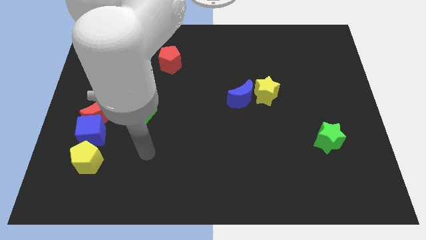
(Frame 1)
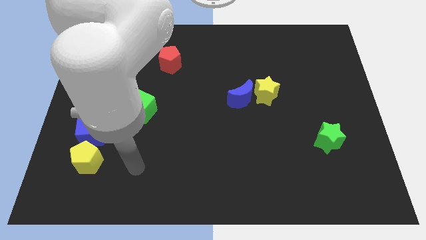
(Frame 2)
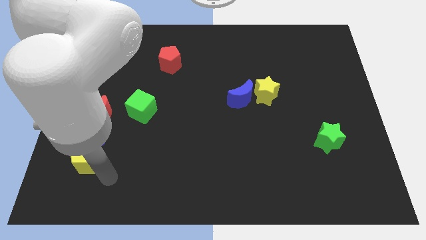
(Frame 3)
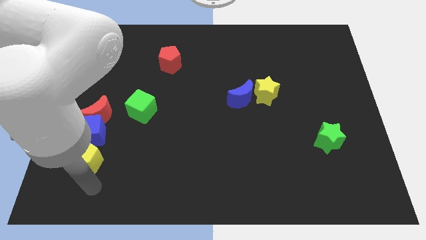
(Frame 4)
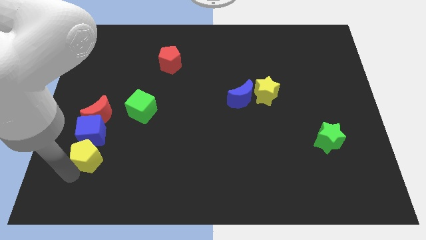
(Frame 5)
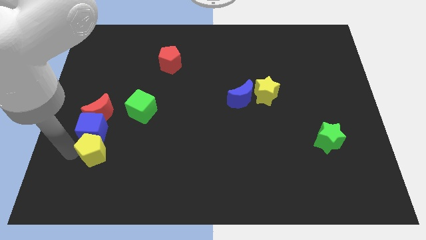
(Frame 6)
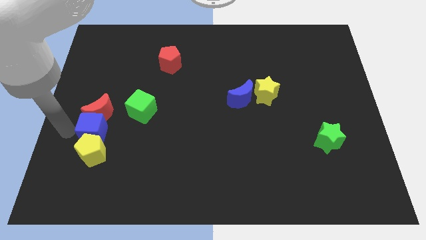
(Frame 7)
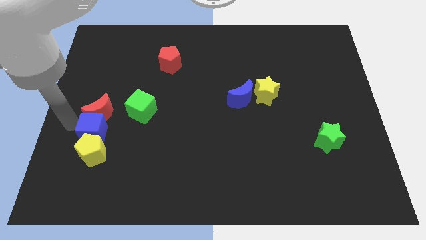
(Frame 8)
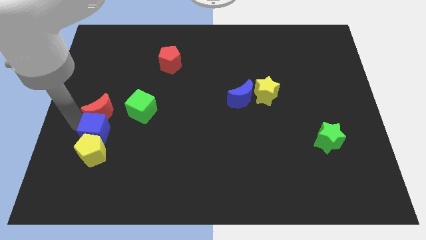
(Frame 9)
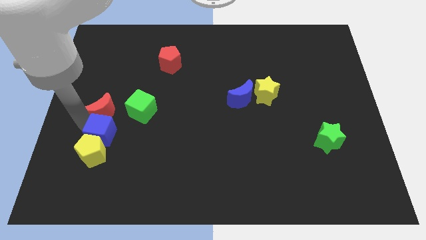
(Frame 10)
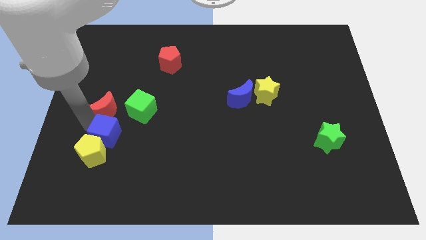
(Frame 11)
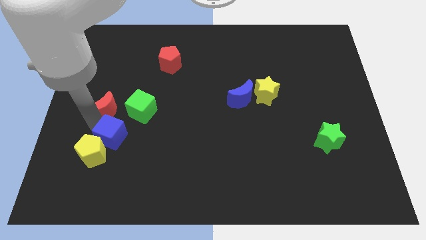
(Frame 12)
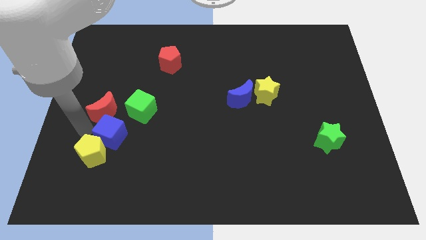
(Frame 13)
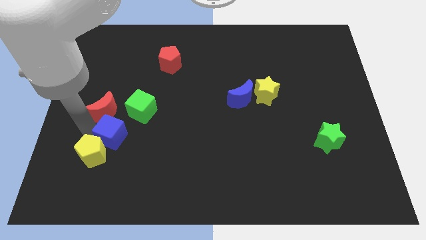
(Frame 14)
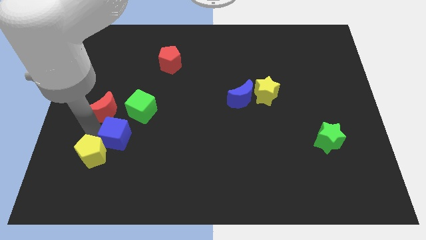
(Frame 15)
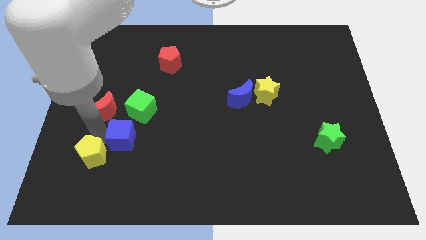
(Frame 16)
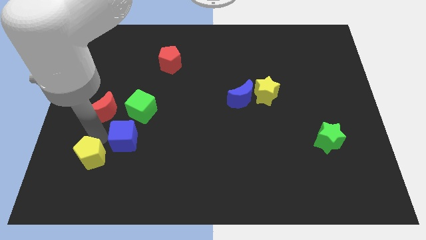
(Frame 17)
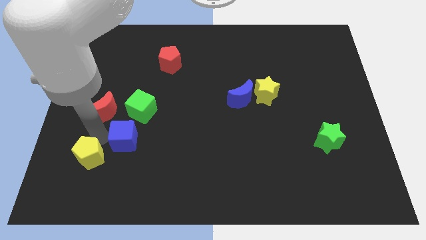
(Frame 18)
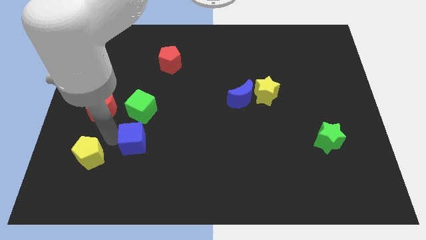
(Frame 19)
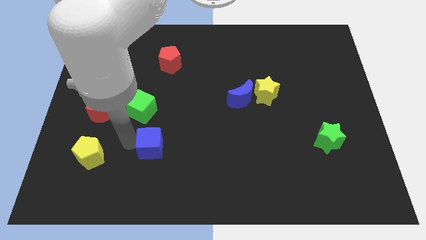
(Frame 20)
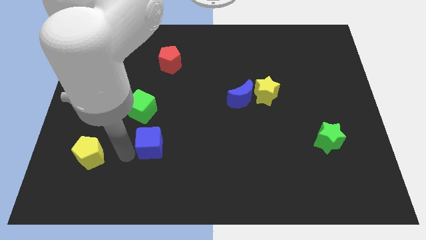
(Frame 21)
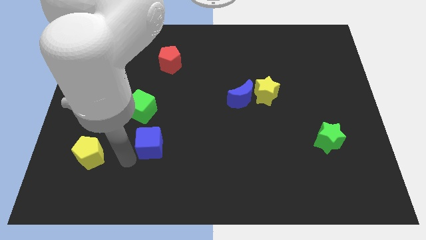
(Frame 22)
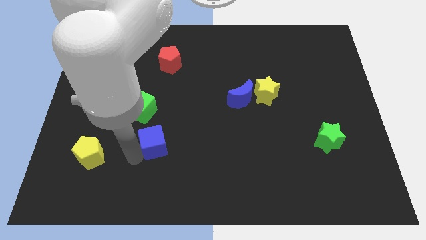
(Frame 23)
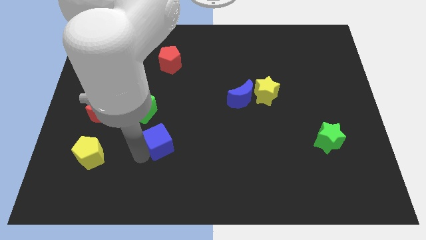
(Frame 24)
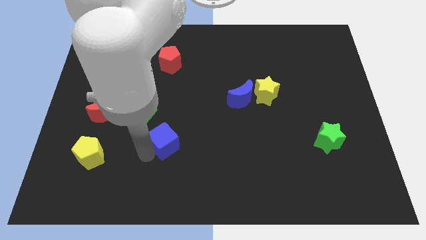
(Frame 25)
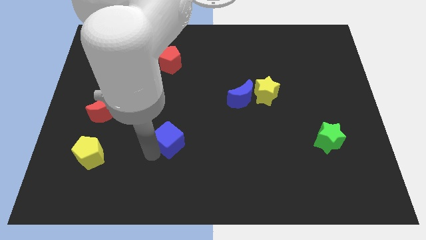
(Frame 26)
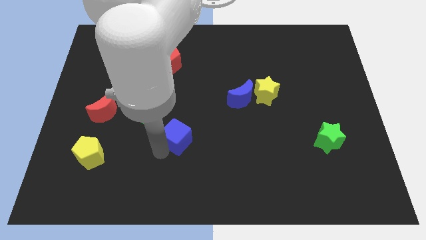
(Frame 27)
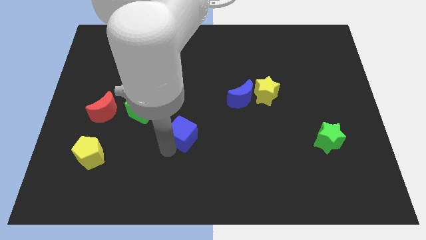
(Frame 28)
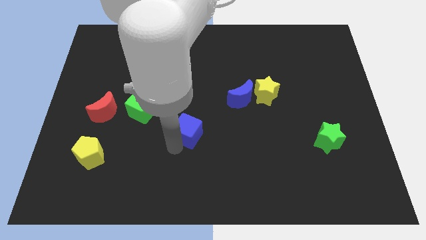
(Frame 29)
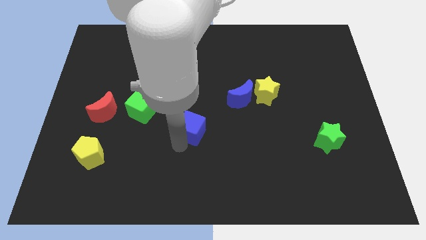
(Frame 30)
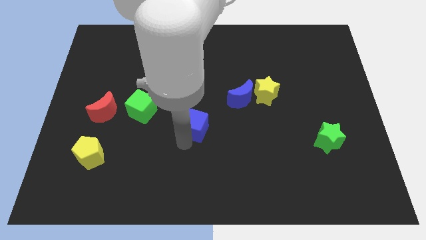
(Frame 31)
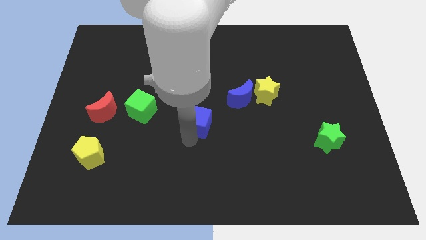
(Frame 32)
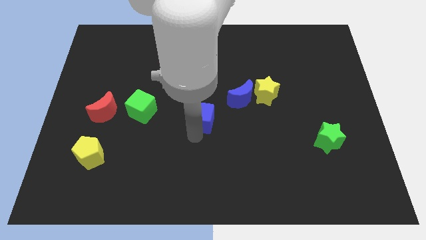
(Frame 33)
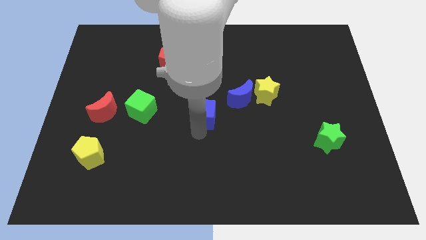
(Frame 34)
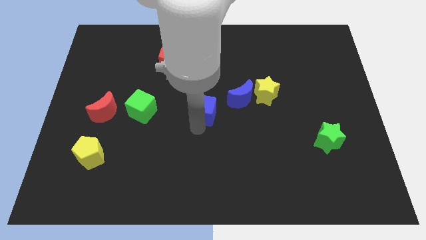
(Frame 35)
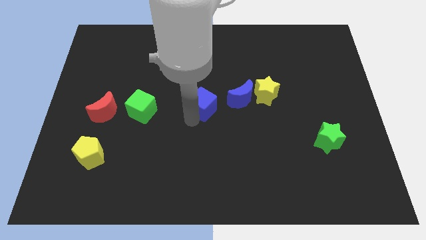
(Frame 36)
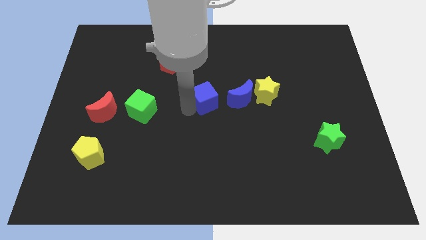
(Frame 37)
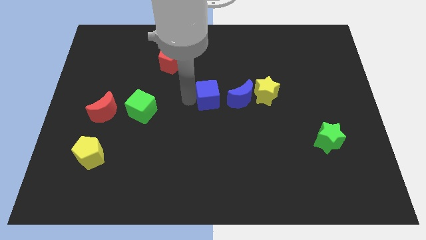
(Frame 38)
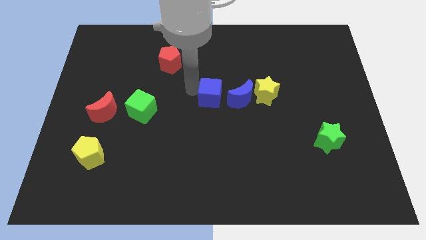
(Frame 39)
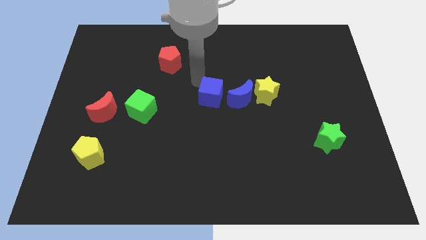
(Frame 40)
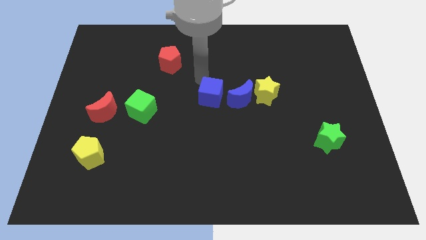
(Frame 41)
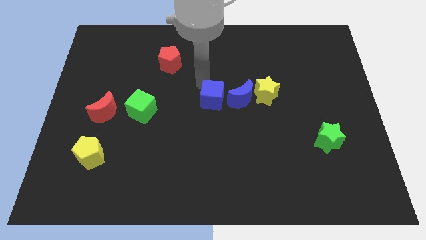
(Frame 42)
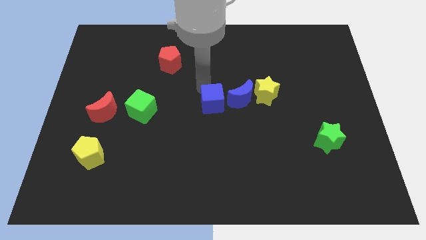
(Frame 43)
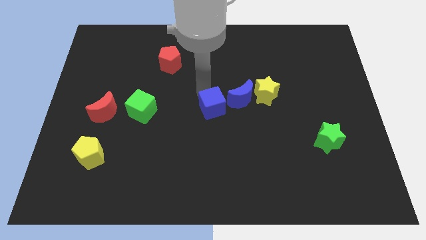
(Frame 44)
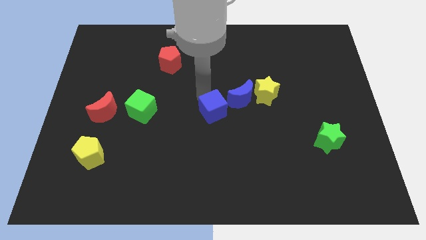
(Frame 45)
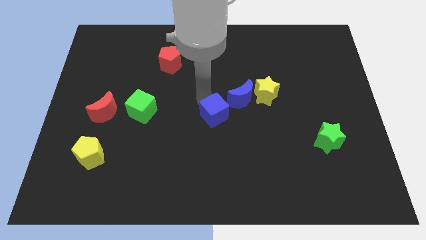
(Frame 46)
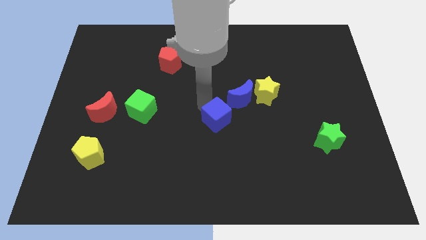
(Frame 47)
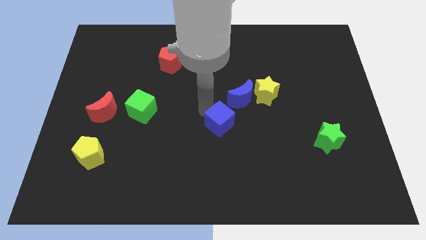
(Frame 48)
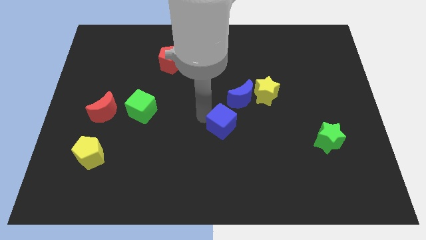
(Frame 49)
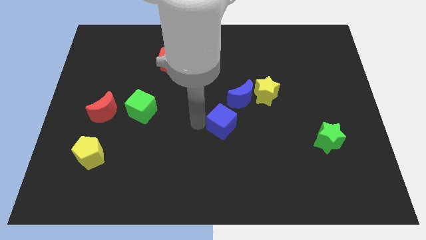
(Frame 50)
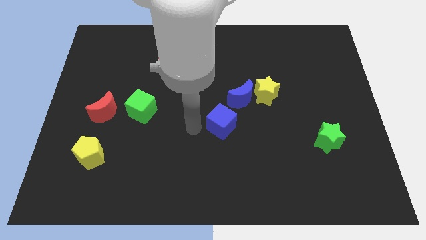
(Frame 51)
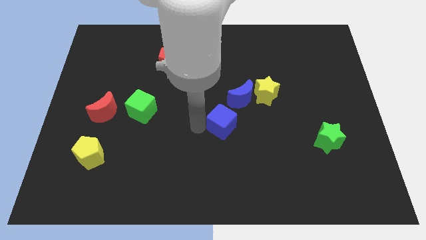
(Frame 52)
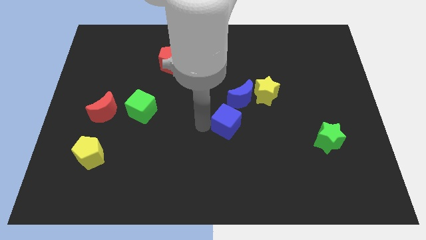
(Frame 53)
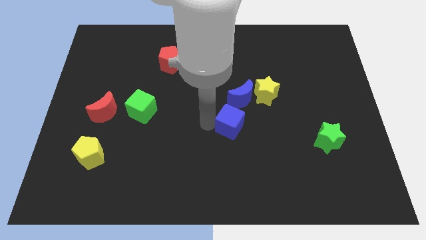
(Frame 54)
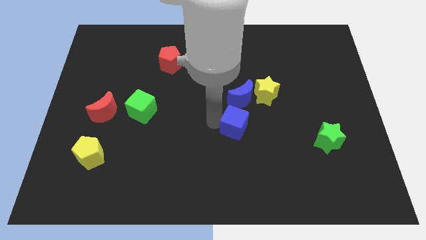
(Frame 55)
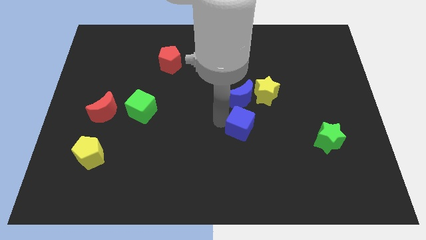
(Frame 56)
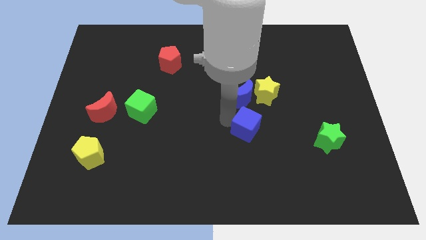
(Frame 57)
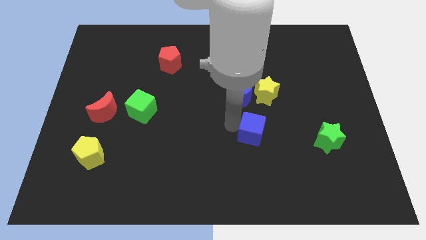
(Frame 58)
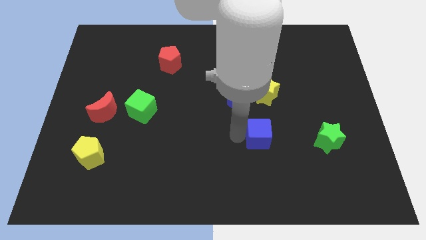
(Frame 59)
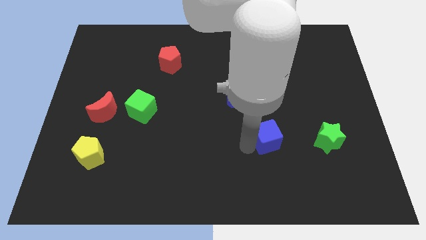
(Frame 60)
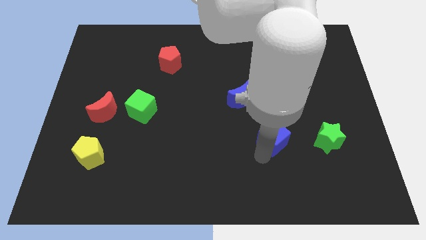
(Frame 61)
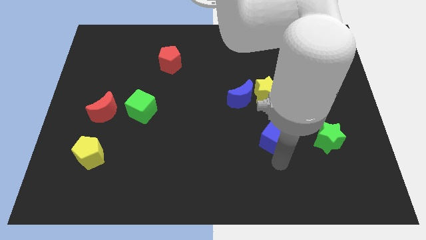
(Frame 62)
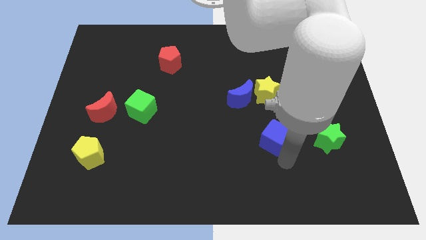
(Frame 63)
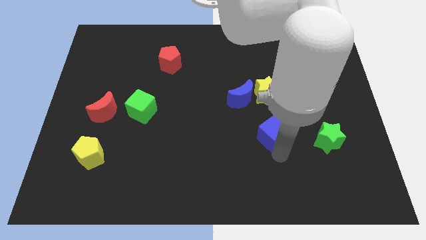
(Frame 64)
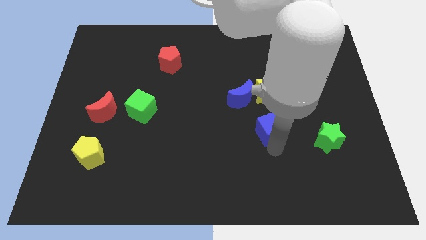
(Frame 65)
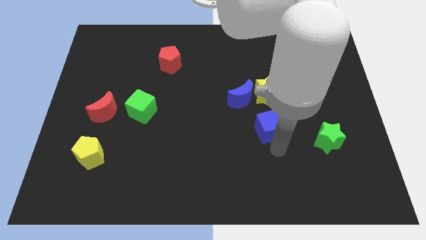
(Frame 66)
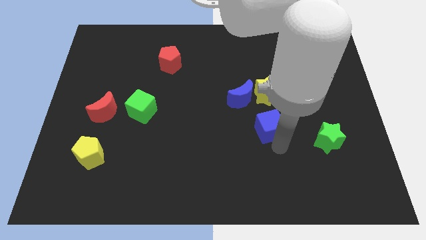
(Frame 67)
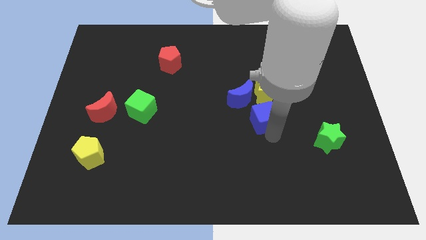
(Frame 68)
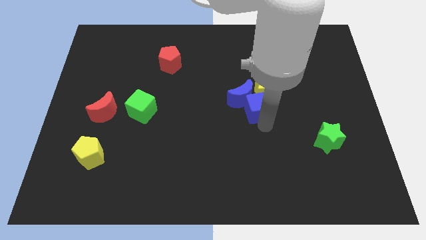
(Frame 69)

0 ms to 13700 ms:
push the blue cube to the yellow star
